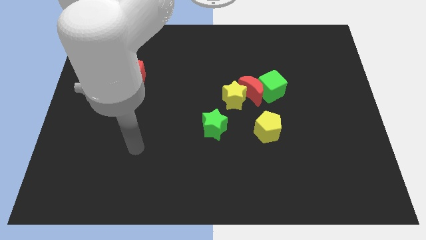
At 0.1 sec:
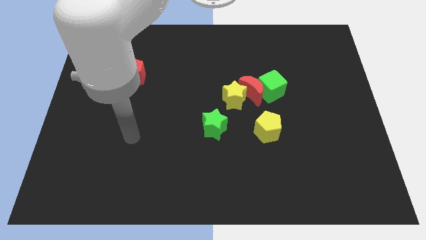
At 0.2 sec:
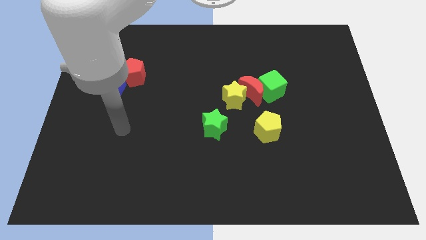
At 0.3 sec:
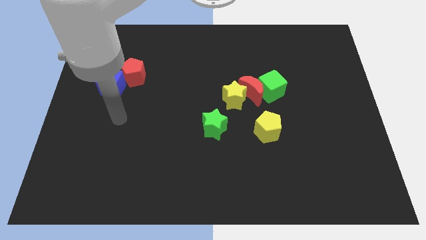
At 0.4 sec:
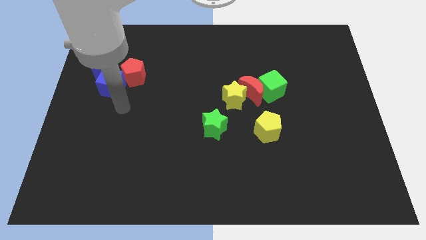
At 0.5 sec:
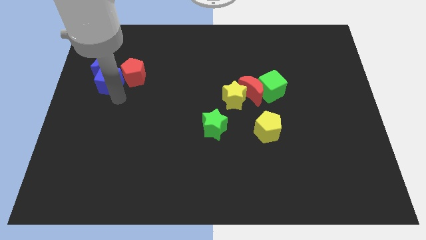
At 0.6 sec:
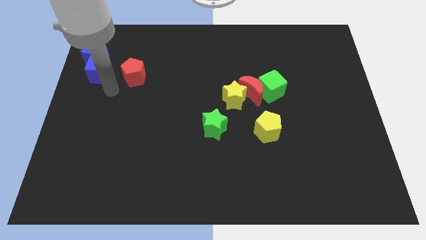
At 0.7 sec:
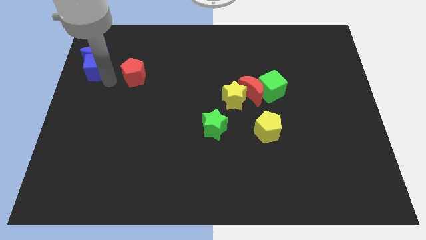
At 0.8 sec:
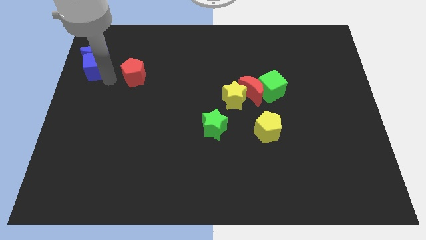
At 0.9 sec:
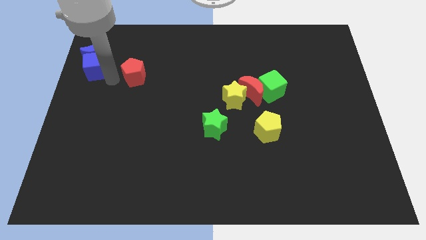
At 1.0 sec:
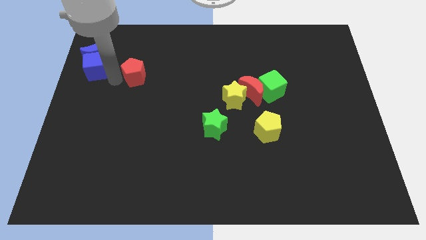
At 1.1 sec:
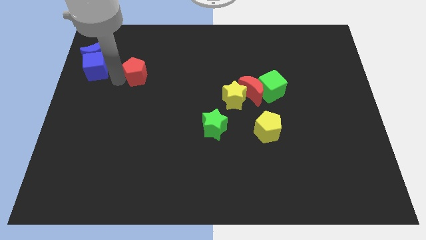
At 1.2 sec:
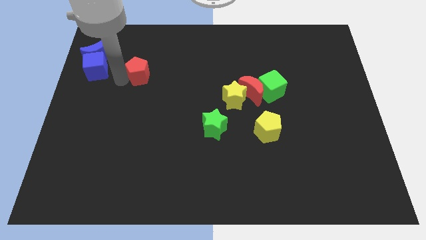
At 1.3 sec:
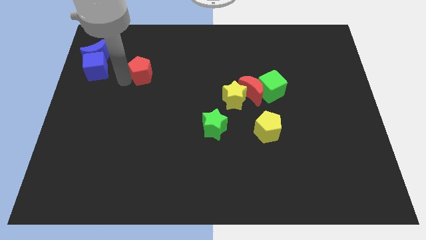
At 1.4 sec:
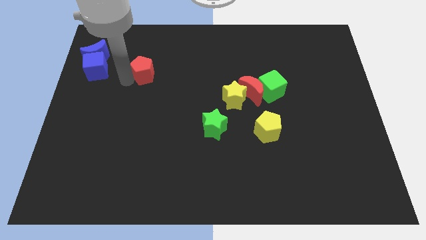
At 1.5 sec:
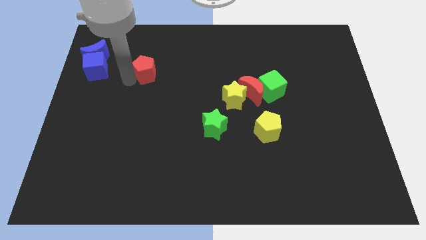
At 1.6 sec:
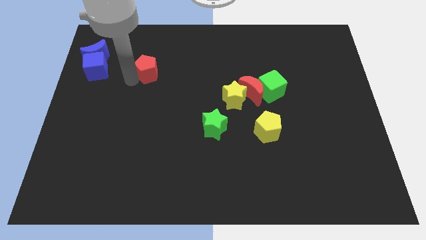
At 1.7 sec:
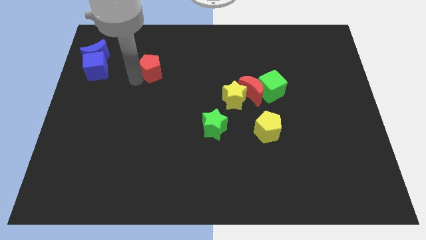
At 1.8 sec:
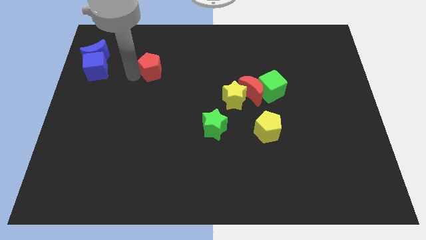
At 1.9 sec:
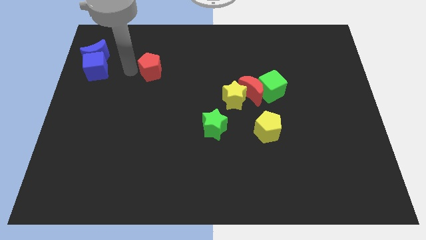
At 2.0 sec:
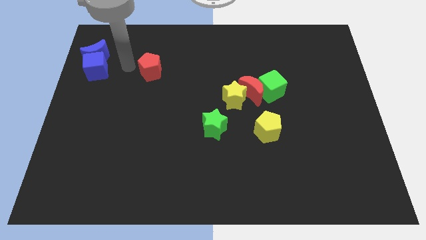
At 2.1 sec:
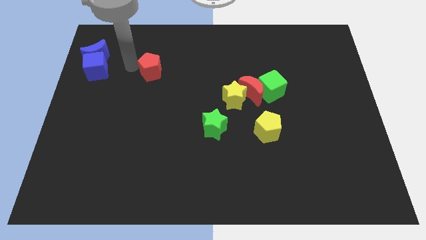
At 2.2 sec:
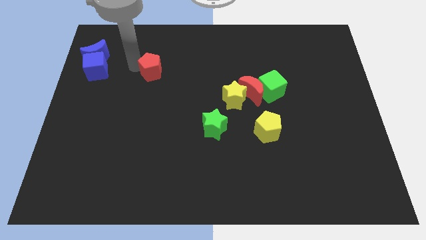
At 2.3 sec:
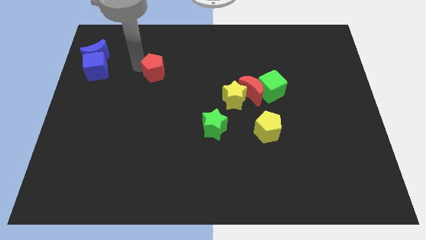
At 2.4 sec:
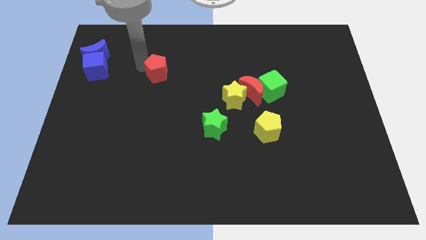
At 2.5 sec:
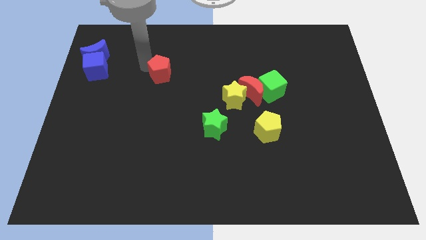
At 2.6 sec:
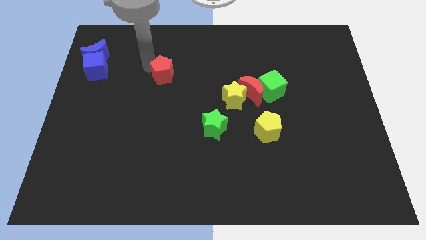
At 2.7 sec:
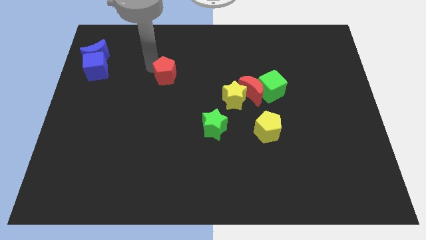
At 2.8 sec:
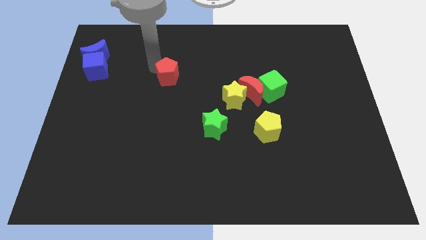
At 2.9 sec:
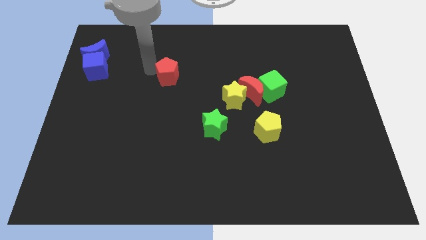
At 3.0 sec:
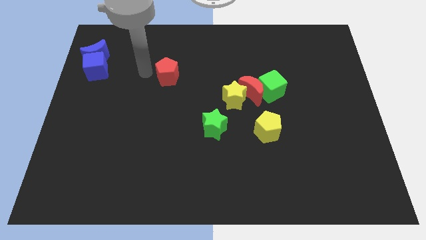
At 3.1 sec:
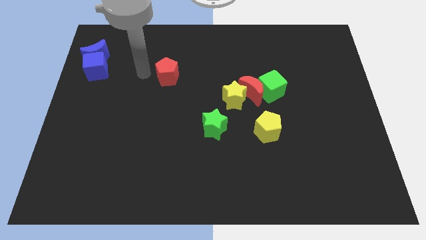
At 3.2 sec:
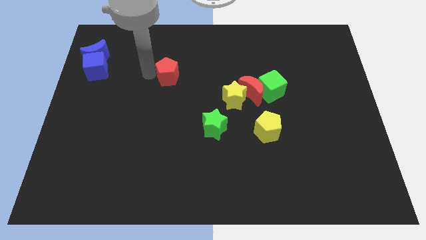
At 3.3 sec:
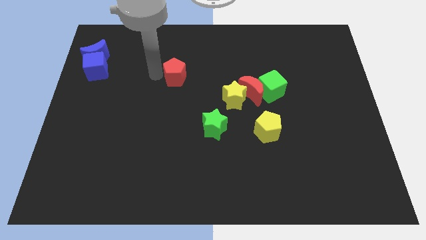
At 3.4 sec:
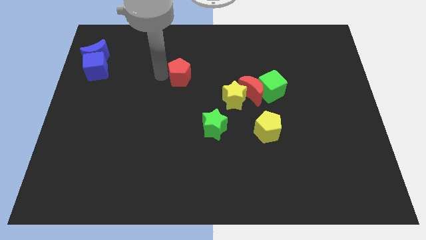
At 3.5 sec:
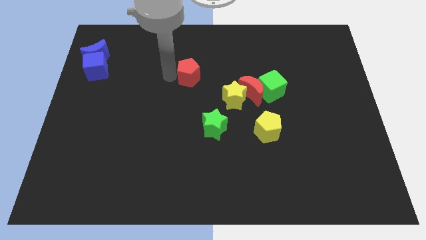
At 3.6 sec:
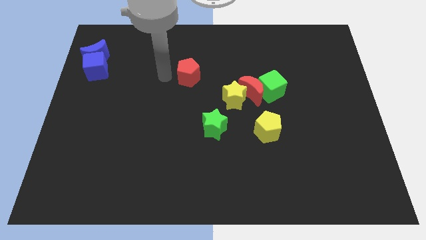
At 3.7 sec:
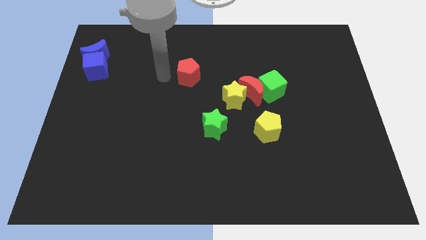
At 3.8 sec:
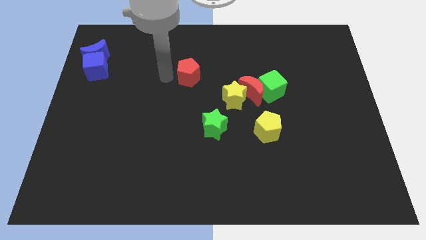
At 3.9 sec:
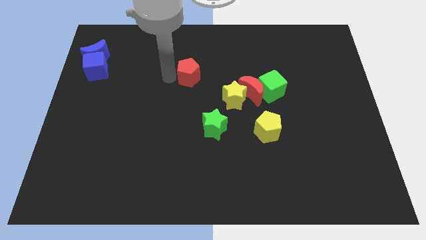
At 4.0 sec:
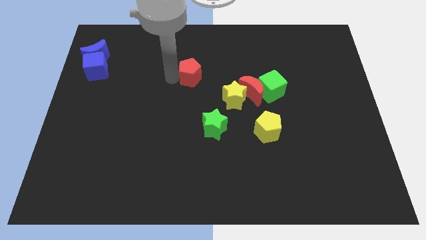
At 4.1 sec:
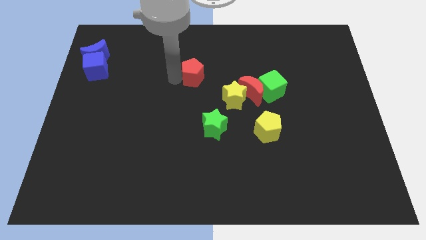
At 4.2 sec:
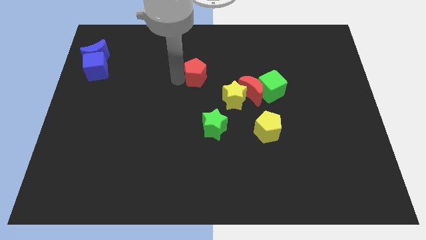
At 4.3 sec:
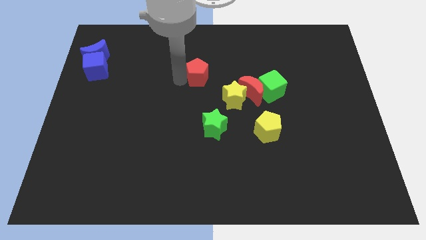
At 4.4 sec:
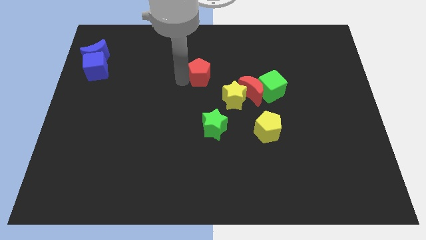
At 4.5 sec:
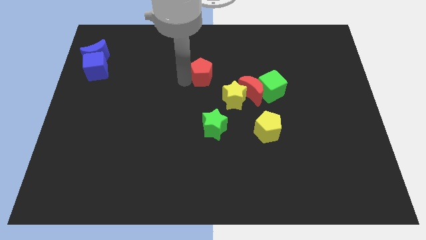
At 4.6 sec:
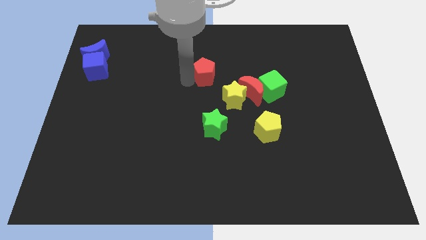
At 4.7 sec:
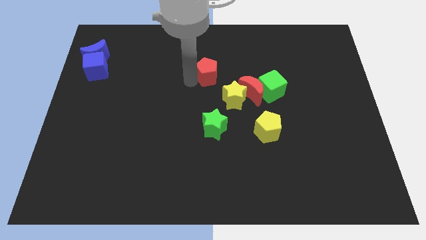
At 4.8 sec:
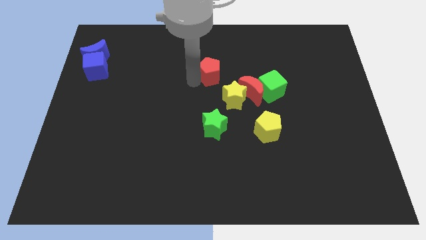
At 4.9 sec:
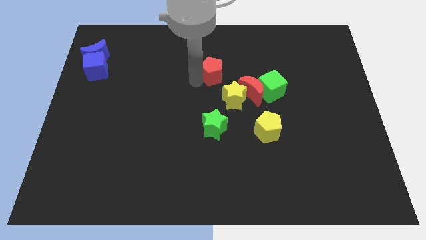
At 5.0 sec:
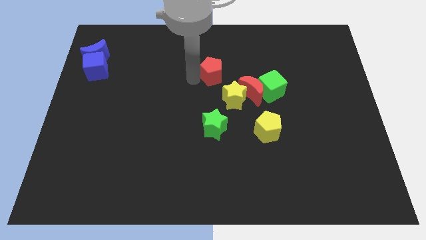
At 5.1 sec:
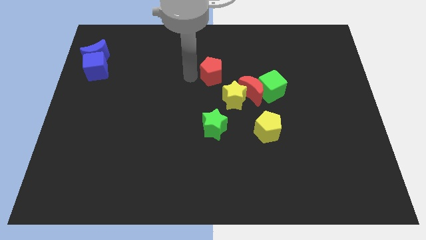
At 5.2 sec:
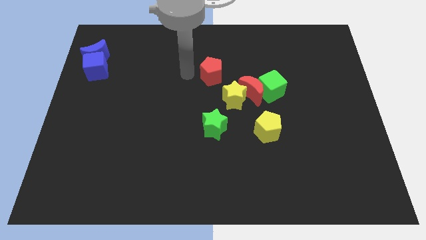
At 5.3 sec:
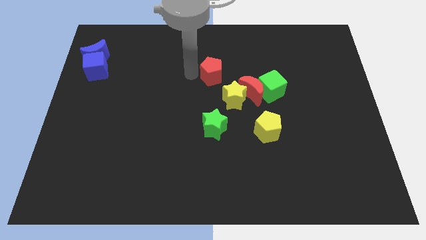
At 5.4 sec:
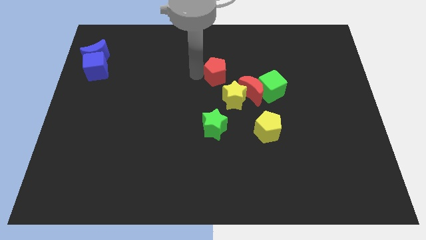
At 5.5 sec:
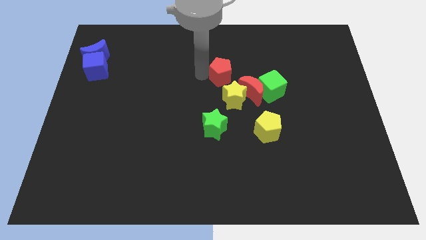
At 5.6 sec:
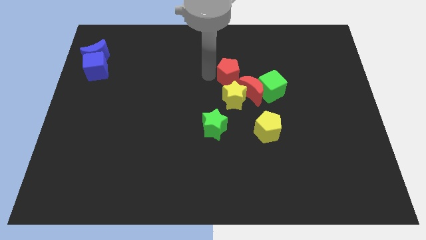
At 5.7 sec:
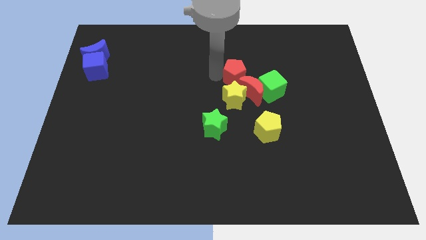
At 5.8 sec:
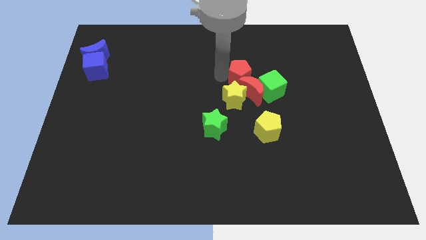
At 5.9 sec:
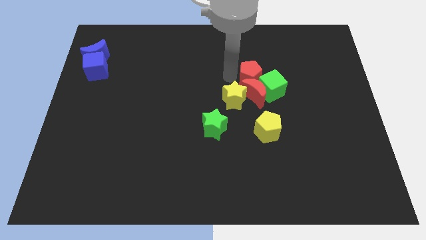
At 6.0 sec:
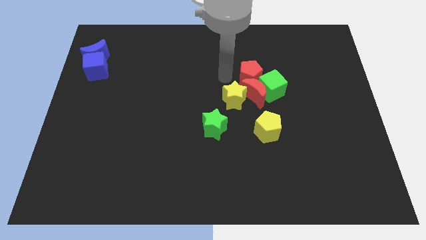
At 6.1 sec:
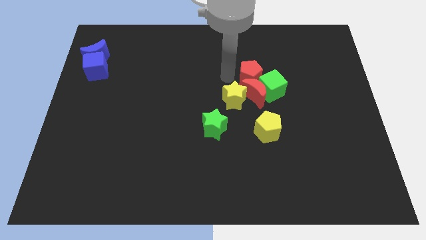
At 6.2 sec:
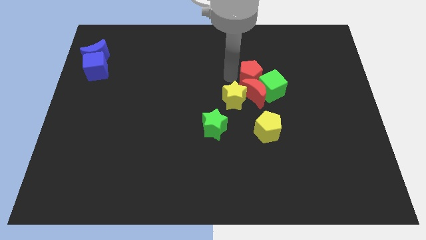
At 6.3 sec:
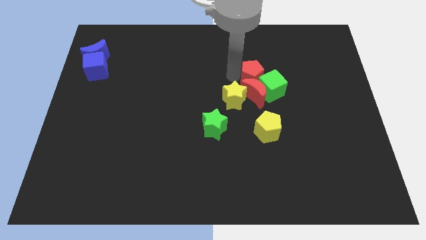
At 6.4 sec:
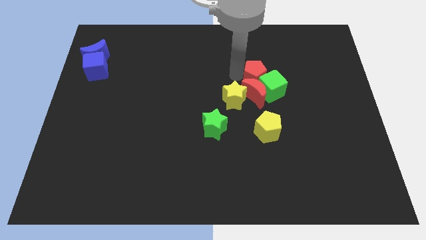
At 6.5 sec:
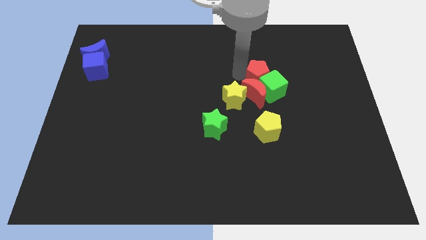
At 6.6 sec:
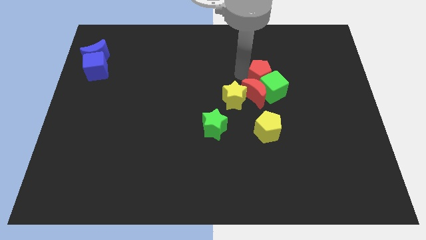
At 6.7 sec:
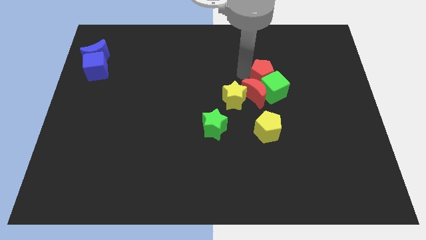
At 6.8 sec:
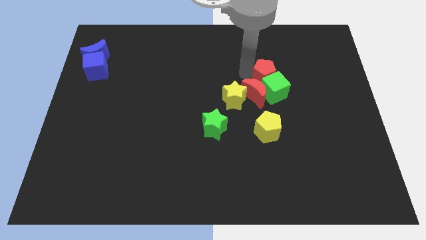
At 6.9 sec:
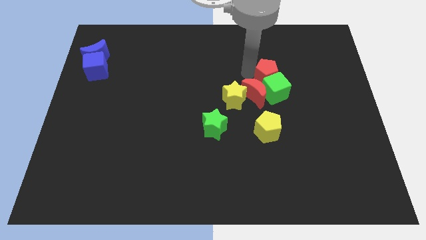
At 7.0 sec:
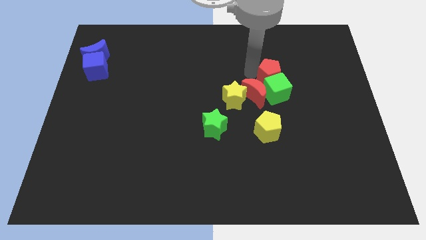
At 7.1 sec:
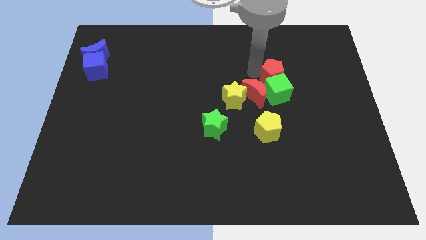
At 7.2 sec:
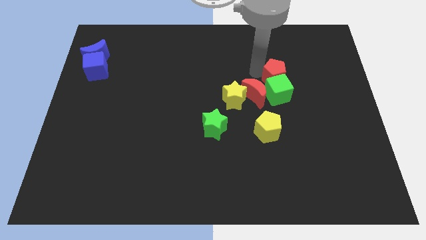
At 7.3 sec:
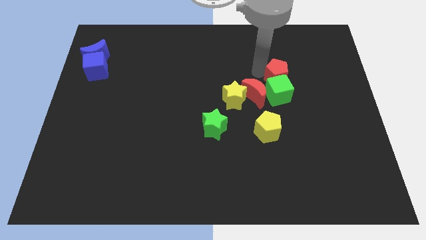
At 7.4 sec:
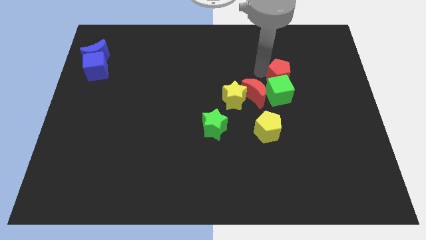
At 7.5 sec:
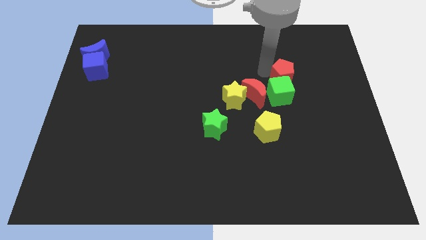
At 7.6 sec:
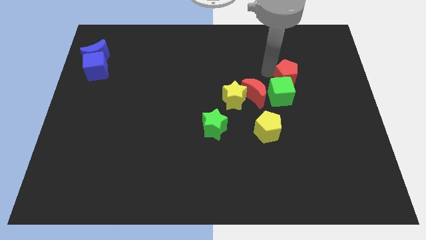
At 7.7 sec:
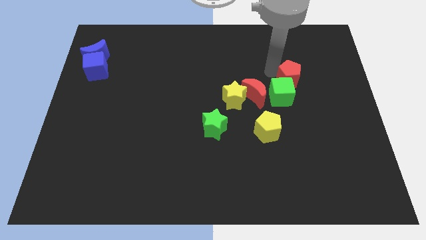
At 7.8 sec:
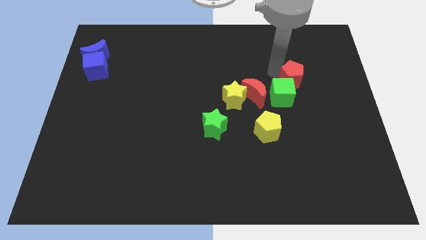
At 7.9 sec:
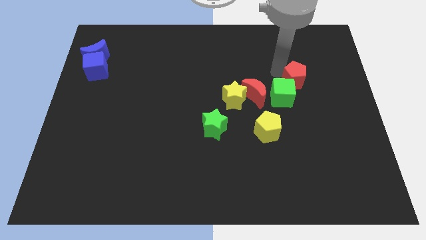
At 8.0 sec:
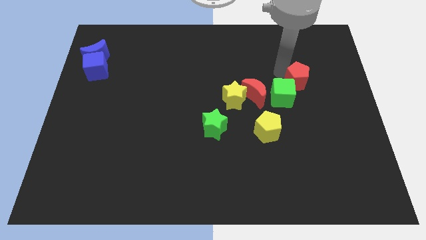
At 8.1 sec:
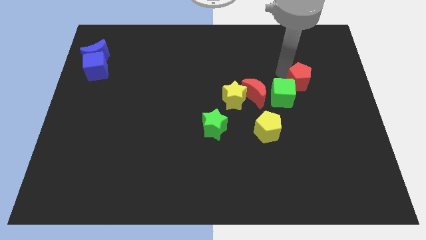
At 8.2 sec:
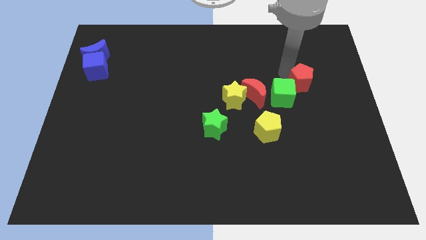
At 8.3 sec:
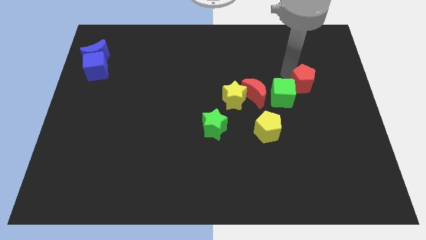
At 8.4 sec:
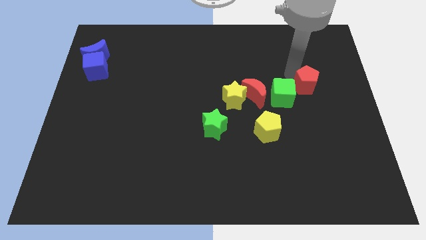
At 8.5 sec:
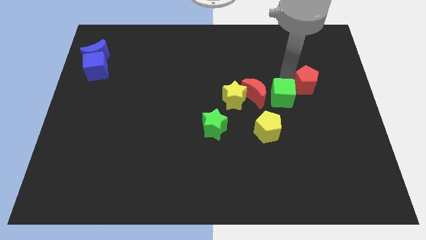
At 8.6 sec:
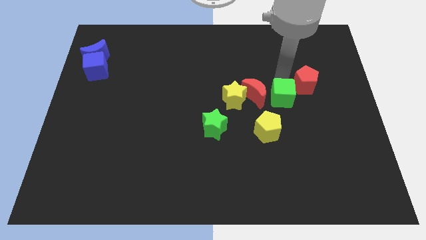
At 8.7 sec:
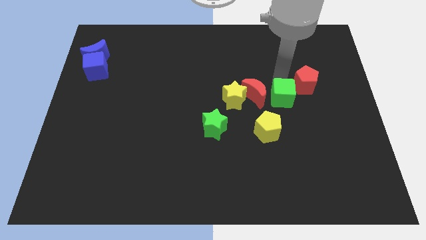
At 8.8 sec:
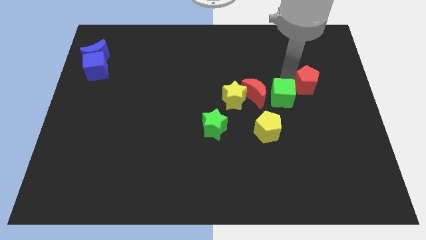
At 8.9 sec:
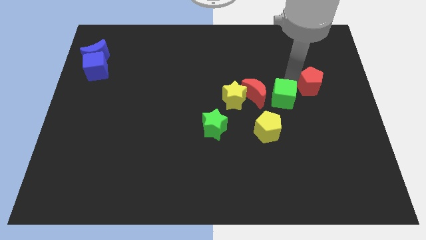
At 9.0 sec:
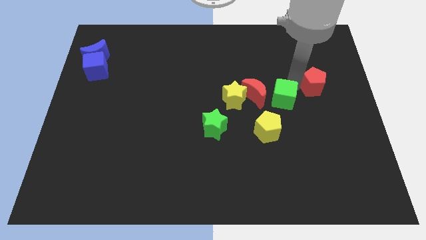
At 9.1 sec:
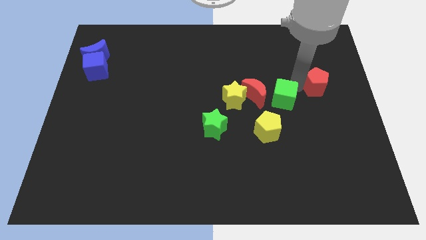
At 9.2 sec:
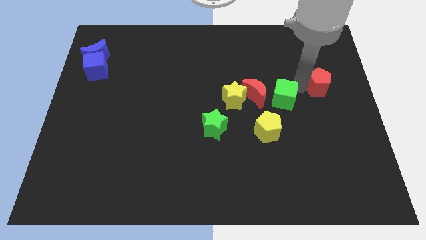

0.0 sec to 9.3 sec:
slide the red pentagon to the right side
